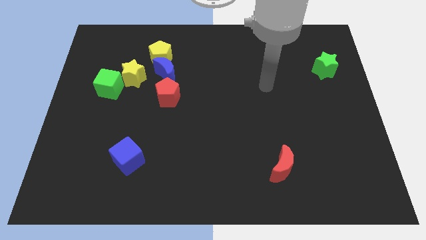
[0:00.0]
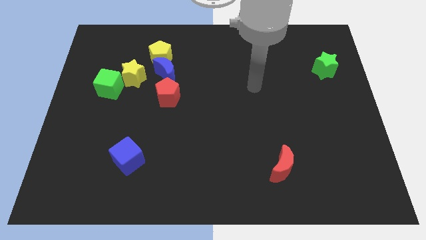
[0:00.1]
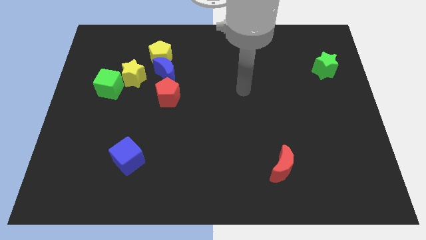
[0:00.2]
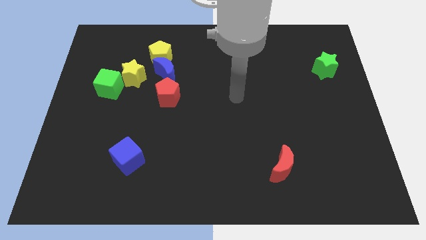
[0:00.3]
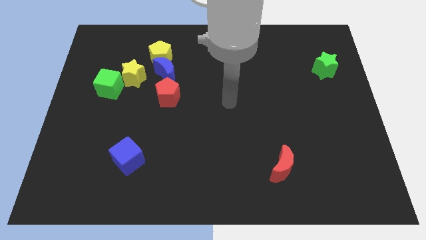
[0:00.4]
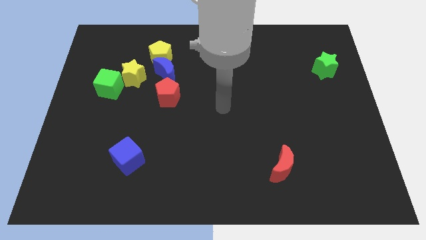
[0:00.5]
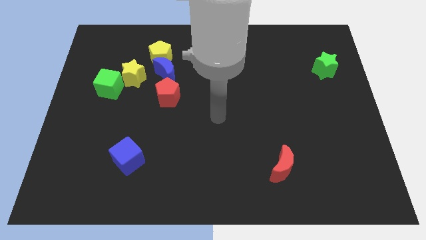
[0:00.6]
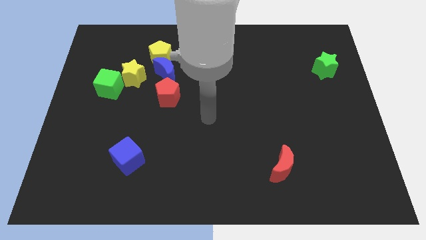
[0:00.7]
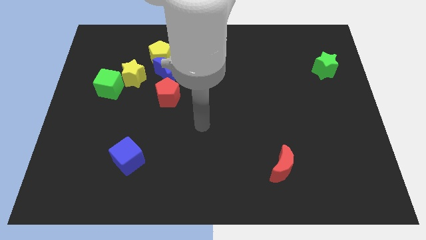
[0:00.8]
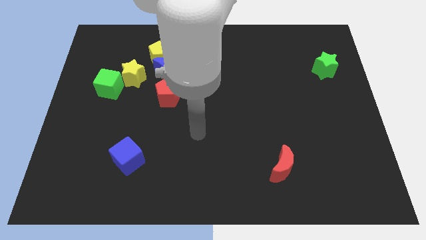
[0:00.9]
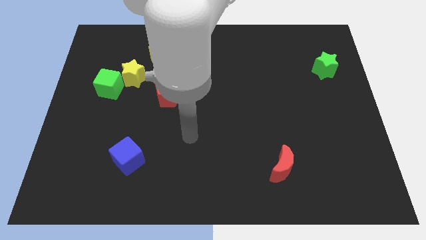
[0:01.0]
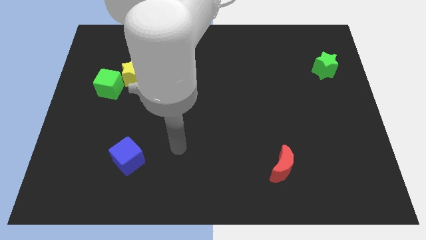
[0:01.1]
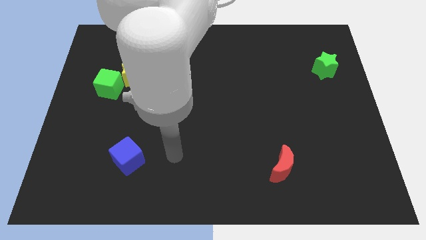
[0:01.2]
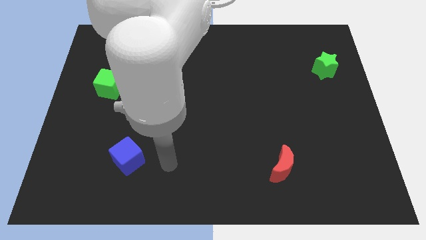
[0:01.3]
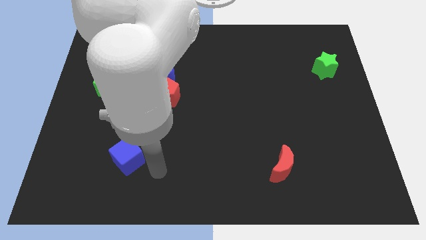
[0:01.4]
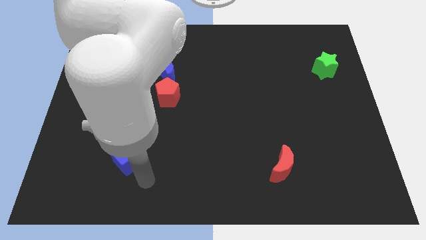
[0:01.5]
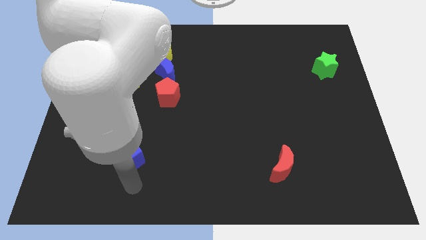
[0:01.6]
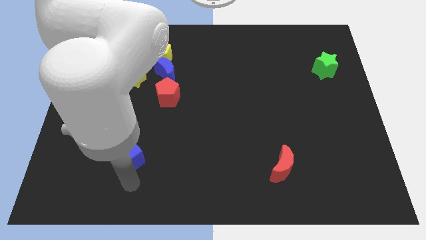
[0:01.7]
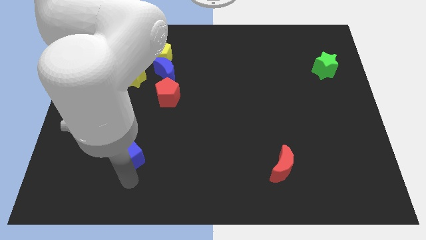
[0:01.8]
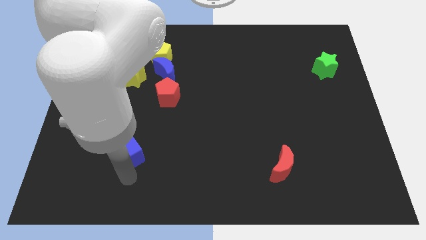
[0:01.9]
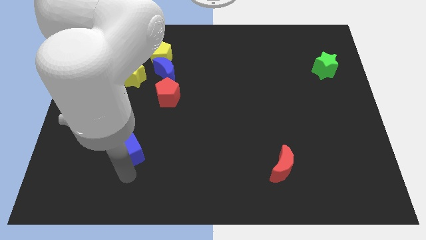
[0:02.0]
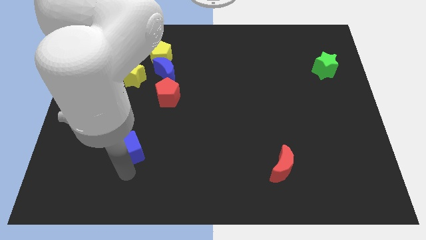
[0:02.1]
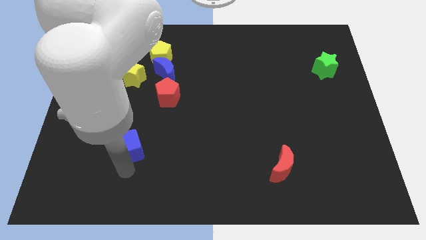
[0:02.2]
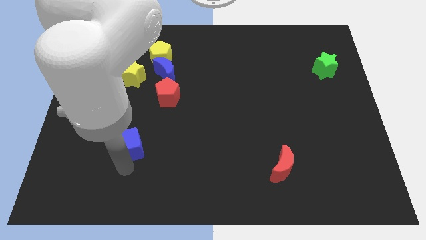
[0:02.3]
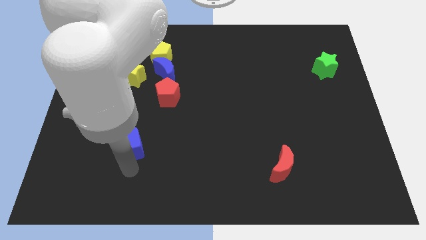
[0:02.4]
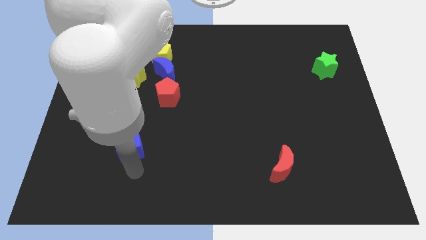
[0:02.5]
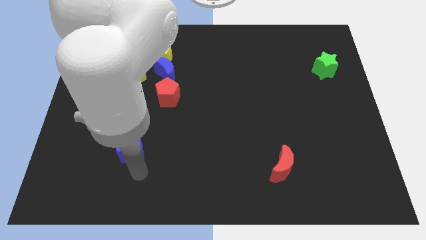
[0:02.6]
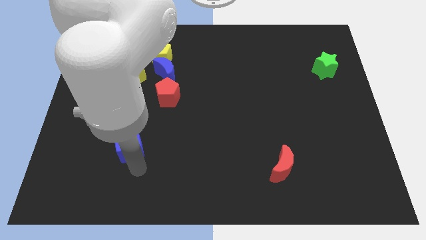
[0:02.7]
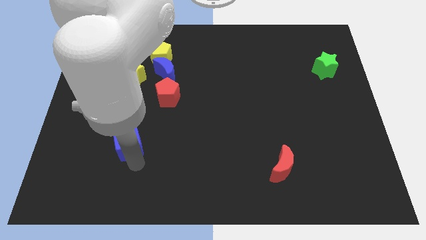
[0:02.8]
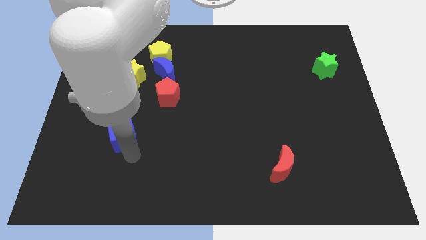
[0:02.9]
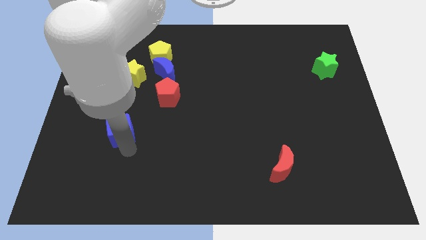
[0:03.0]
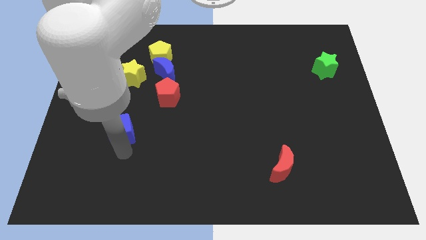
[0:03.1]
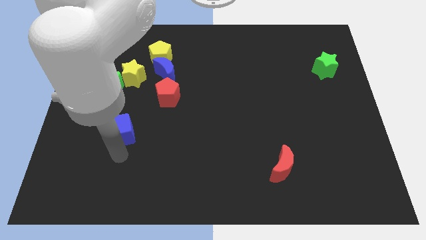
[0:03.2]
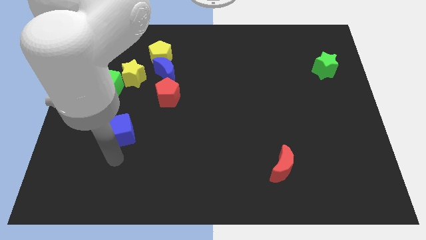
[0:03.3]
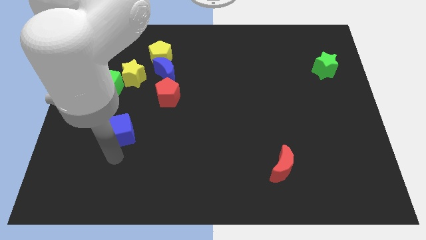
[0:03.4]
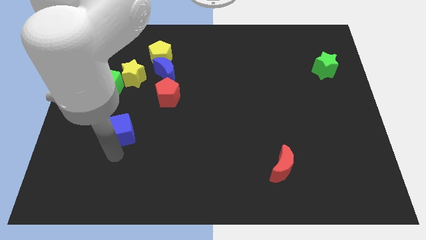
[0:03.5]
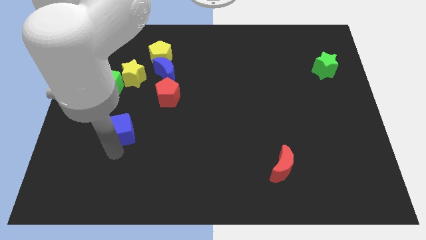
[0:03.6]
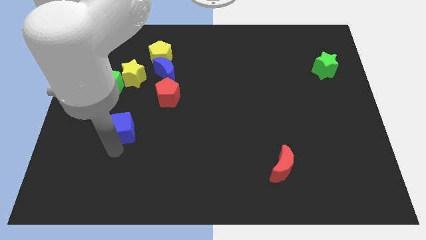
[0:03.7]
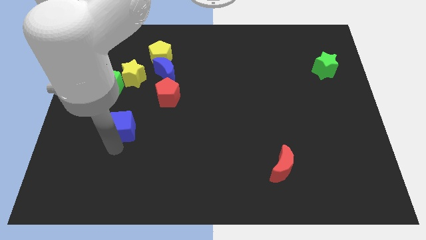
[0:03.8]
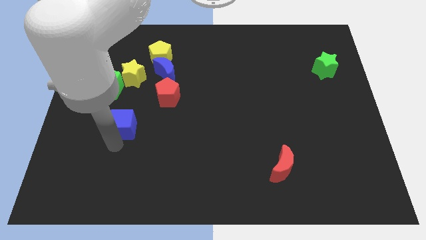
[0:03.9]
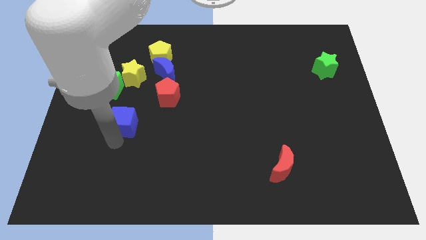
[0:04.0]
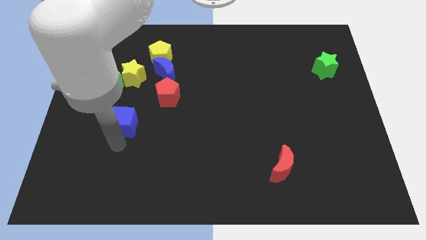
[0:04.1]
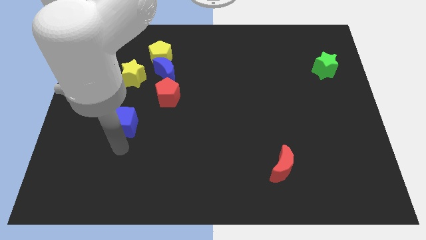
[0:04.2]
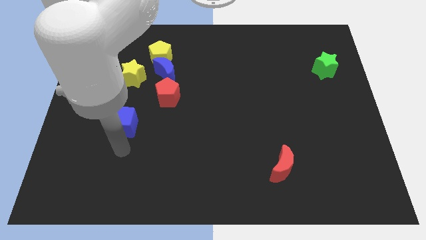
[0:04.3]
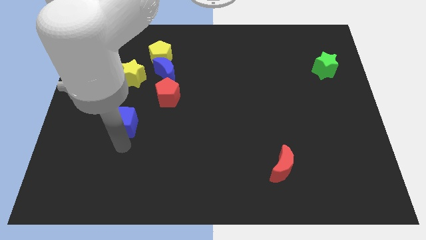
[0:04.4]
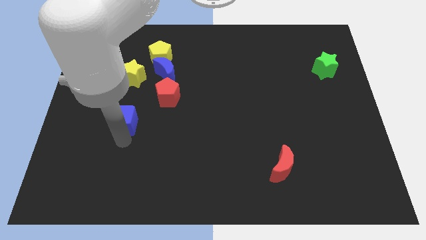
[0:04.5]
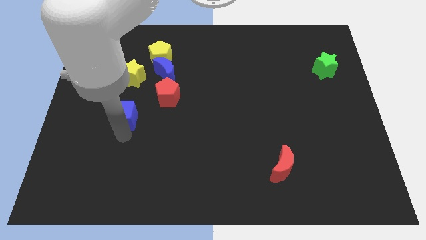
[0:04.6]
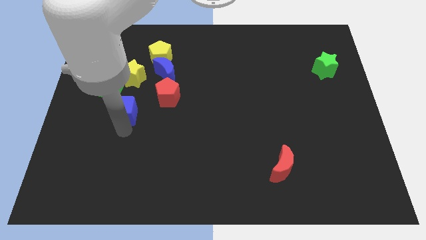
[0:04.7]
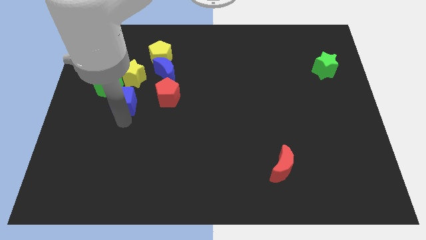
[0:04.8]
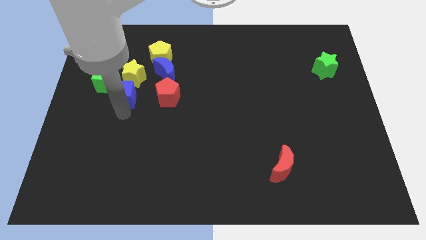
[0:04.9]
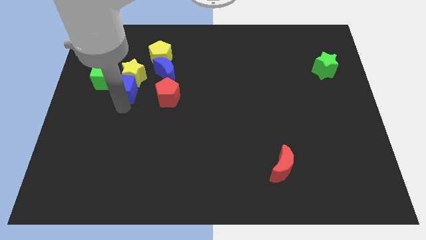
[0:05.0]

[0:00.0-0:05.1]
push the blue cube to the yellow star

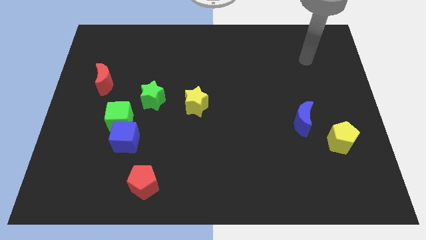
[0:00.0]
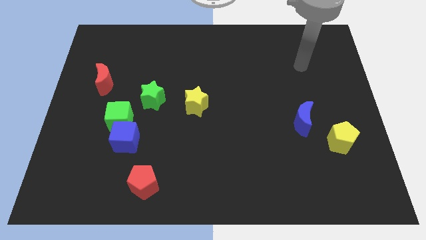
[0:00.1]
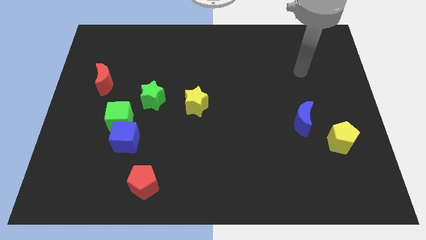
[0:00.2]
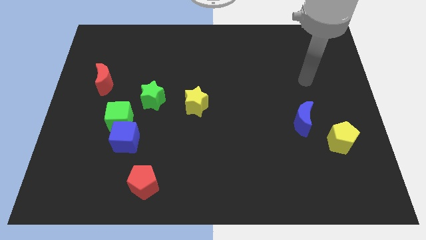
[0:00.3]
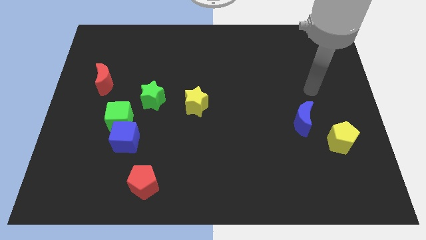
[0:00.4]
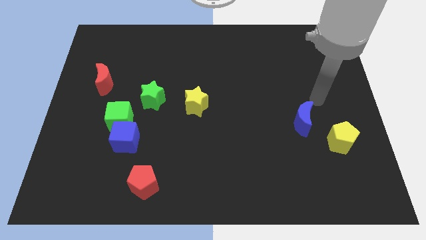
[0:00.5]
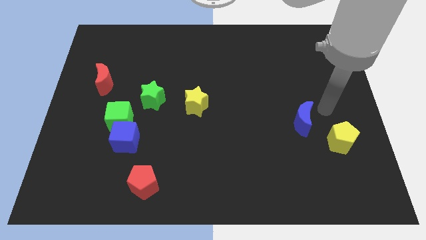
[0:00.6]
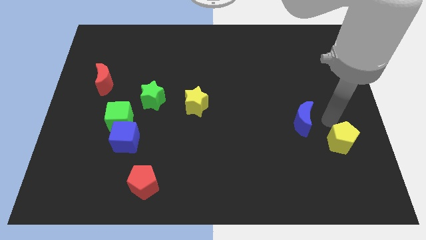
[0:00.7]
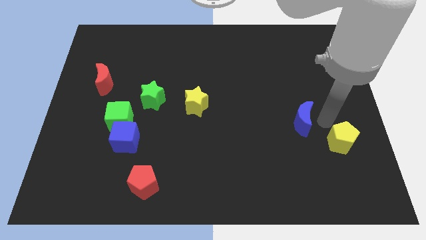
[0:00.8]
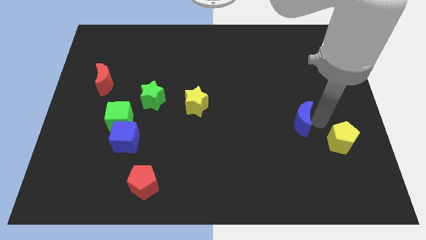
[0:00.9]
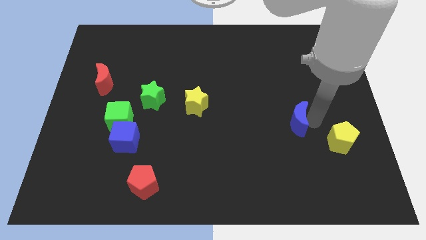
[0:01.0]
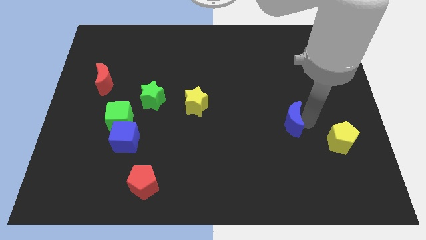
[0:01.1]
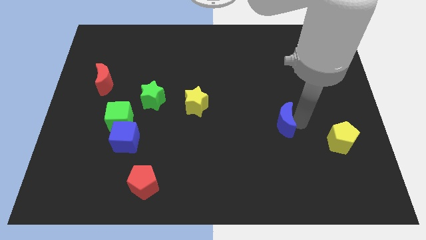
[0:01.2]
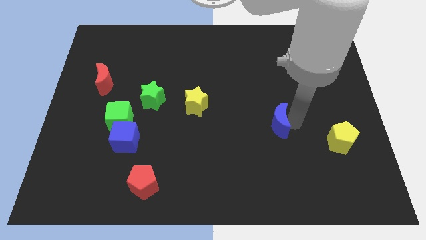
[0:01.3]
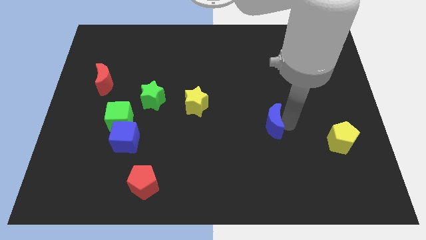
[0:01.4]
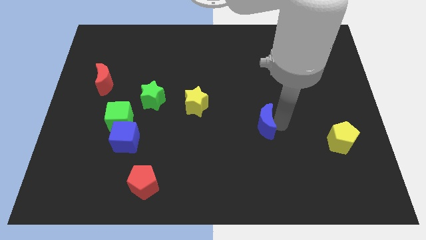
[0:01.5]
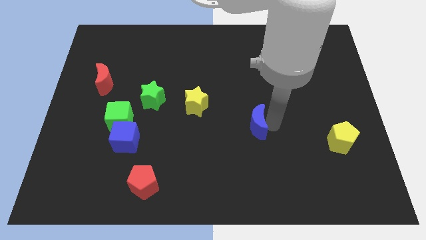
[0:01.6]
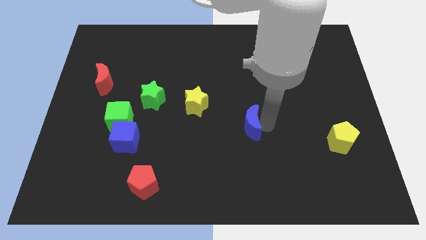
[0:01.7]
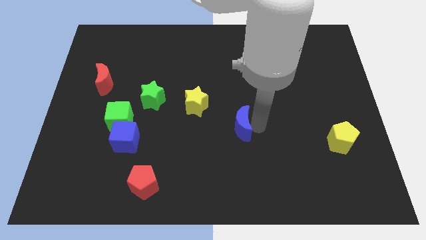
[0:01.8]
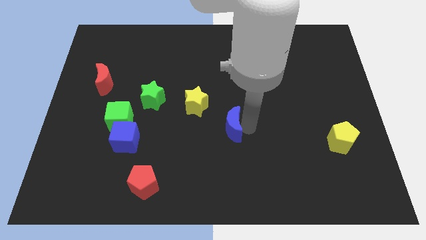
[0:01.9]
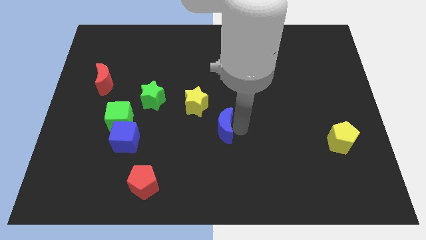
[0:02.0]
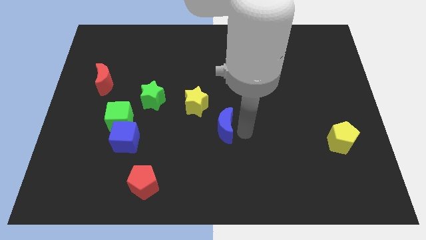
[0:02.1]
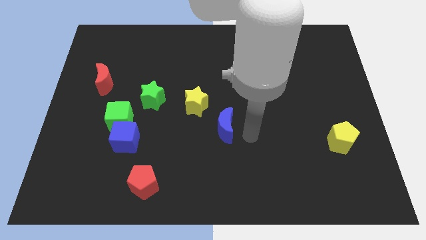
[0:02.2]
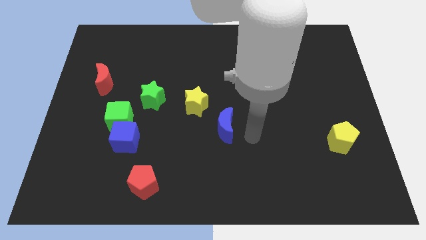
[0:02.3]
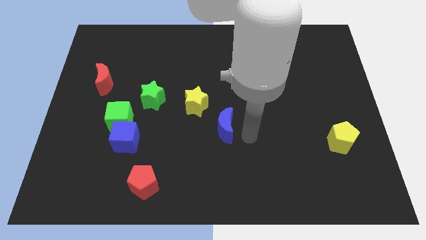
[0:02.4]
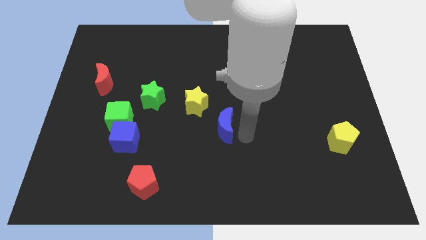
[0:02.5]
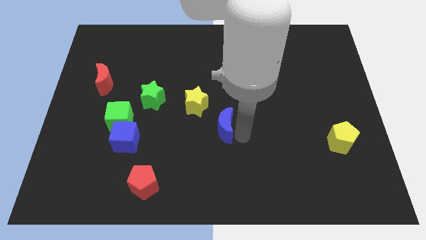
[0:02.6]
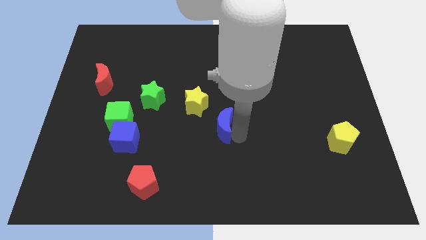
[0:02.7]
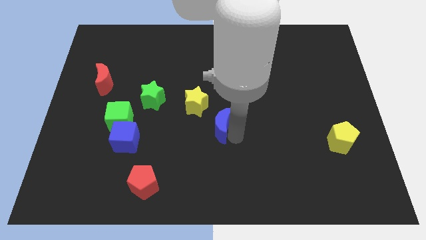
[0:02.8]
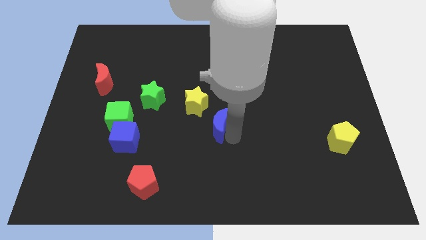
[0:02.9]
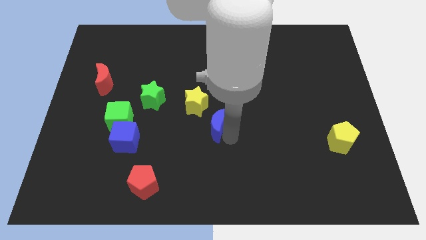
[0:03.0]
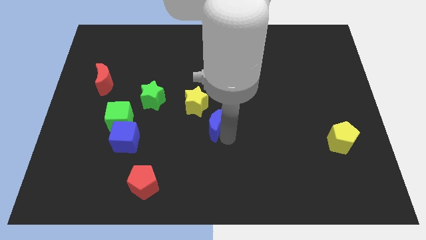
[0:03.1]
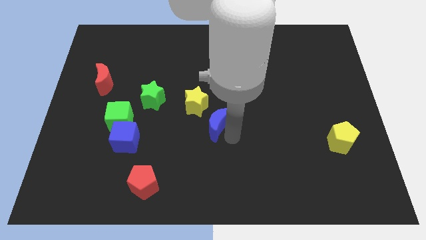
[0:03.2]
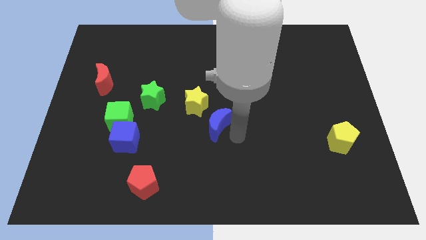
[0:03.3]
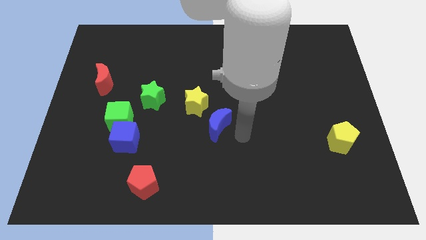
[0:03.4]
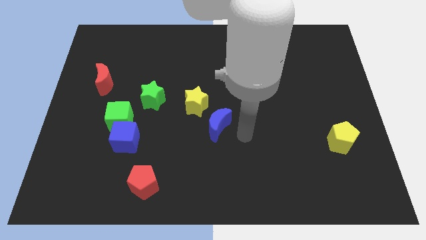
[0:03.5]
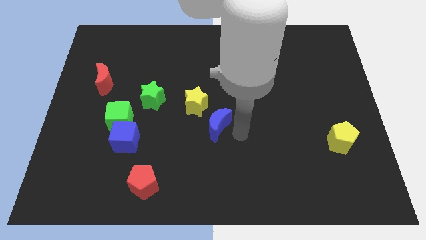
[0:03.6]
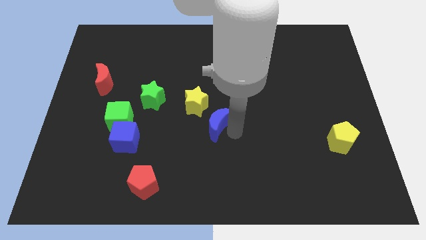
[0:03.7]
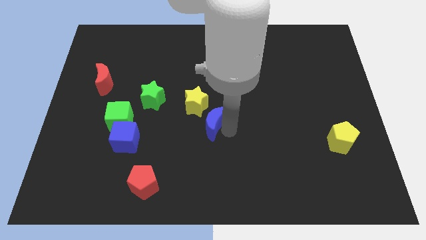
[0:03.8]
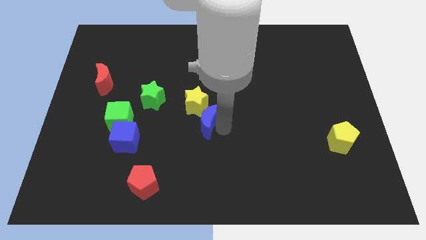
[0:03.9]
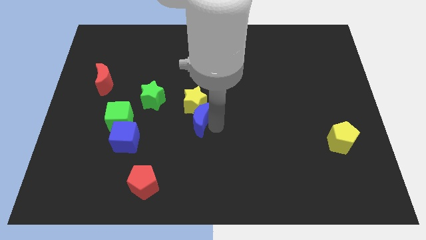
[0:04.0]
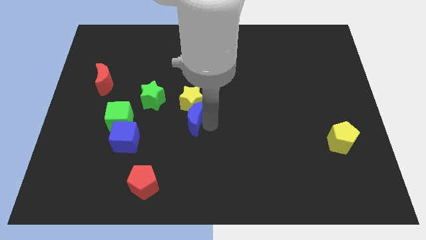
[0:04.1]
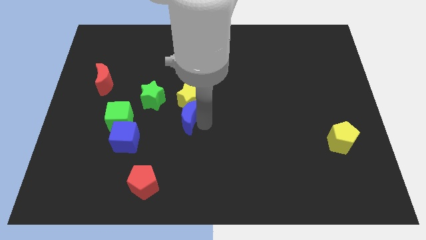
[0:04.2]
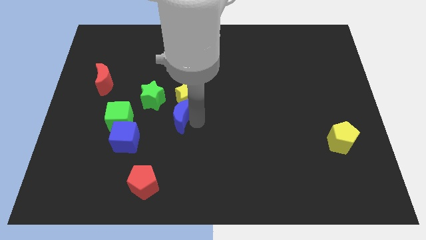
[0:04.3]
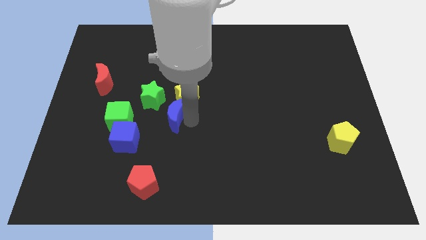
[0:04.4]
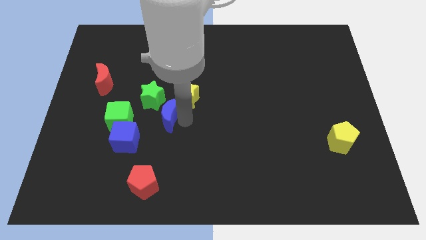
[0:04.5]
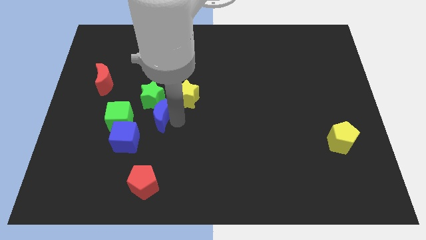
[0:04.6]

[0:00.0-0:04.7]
put the blue moon to the green star
